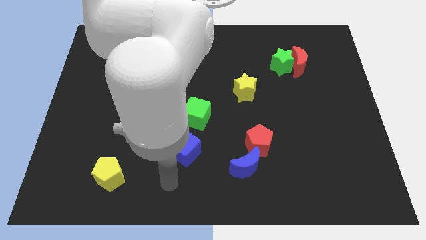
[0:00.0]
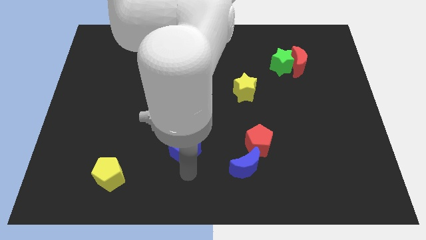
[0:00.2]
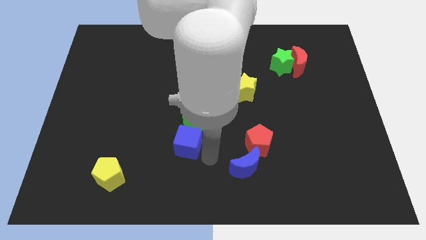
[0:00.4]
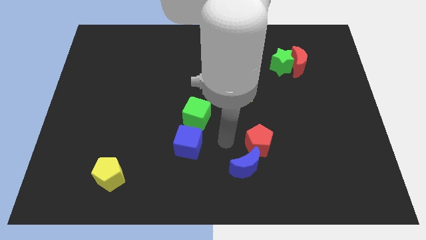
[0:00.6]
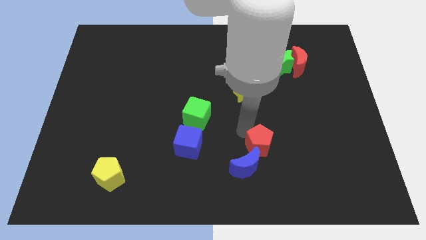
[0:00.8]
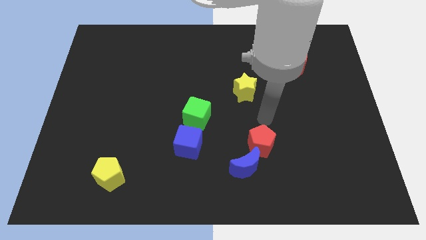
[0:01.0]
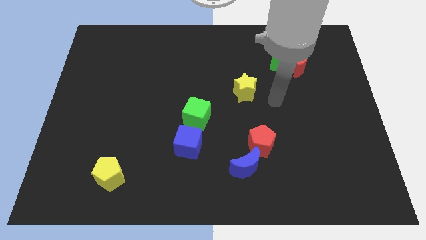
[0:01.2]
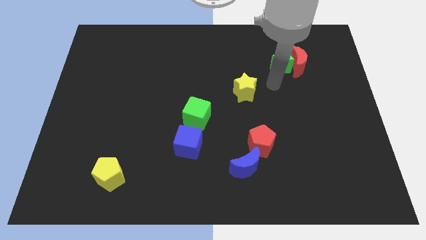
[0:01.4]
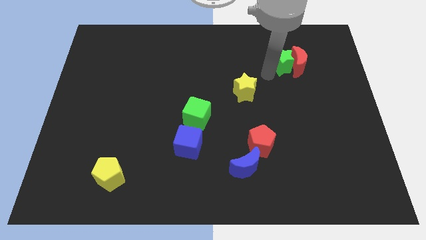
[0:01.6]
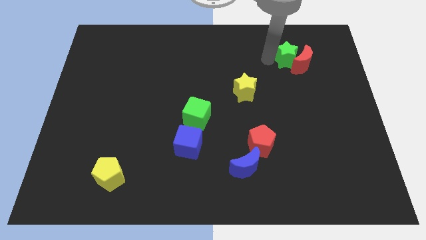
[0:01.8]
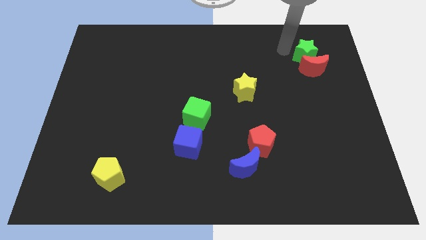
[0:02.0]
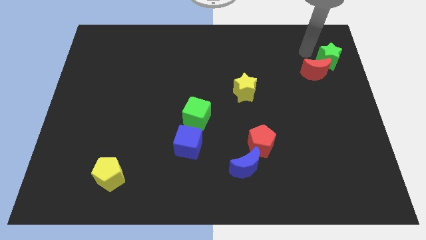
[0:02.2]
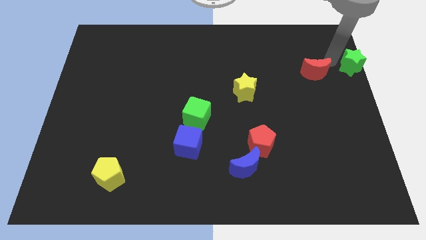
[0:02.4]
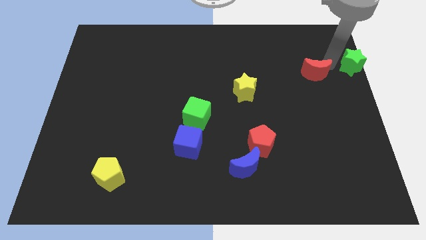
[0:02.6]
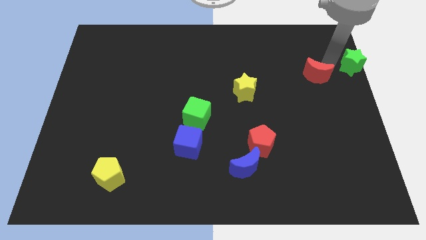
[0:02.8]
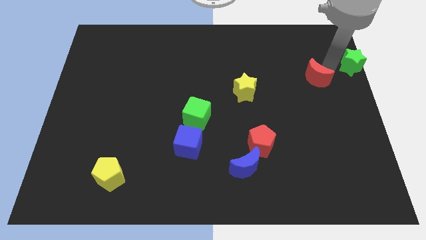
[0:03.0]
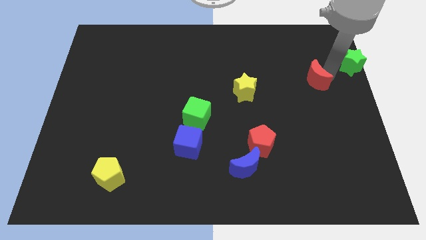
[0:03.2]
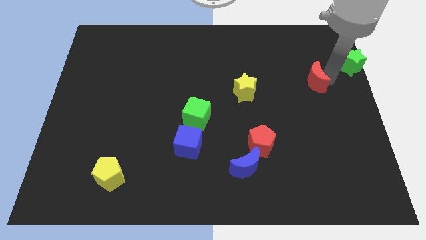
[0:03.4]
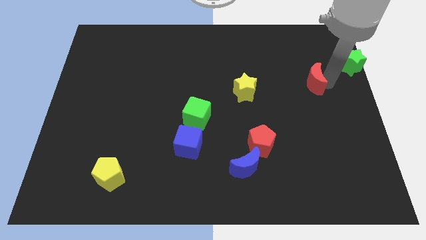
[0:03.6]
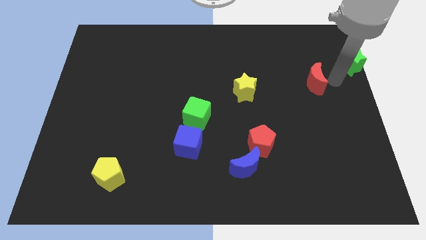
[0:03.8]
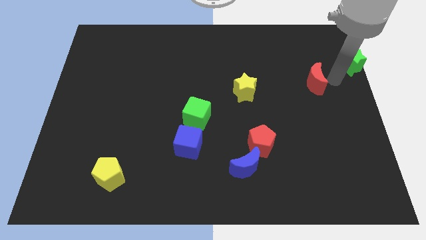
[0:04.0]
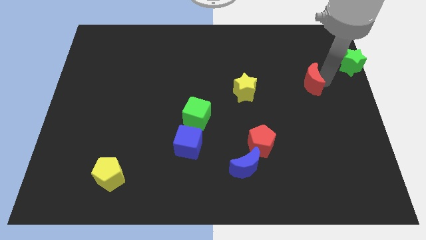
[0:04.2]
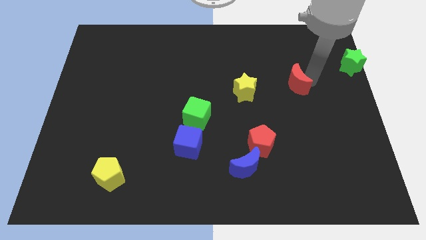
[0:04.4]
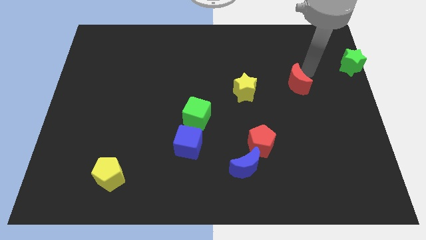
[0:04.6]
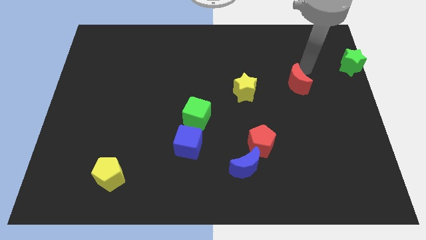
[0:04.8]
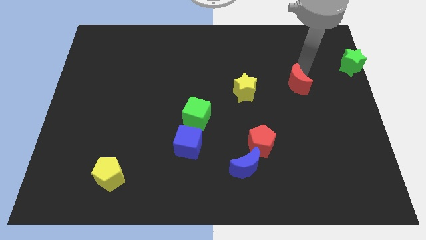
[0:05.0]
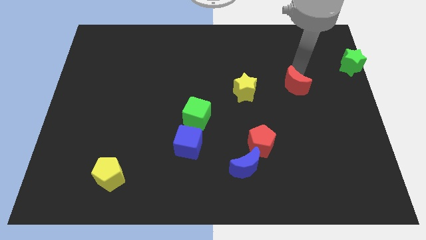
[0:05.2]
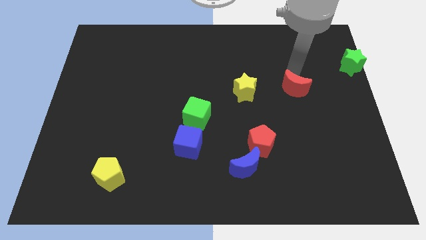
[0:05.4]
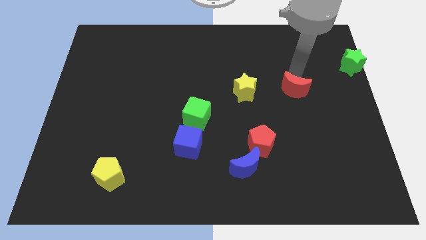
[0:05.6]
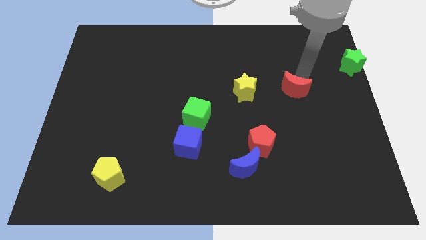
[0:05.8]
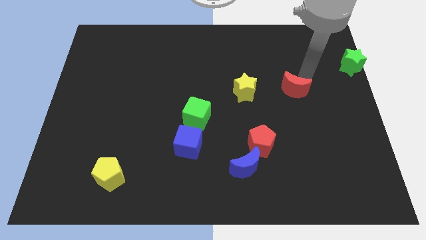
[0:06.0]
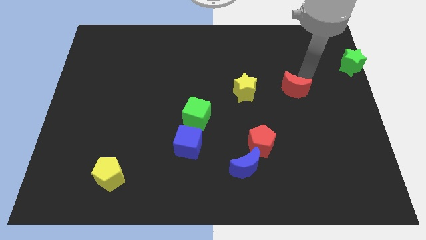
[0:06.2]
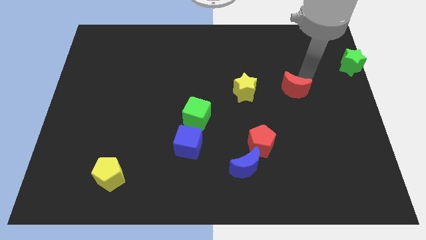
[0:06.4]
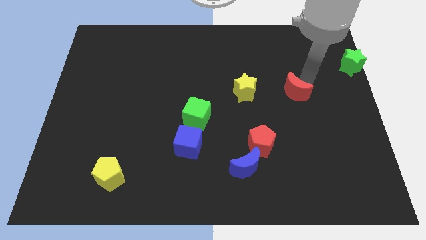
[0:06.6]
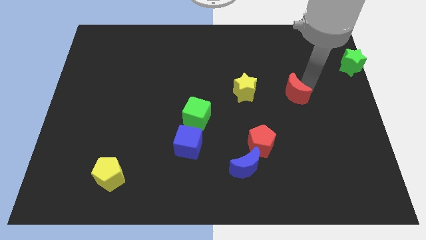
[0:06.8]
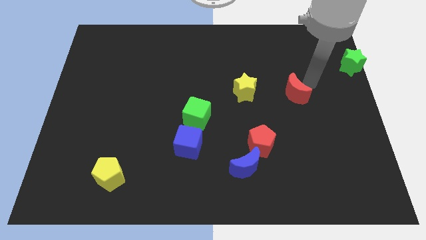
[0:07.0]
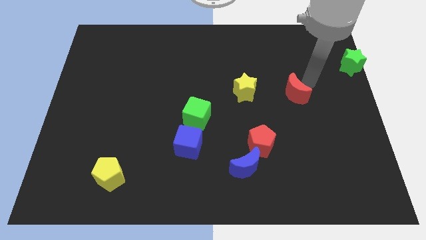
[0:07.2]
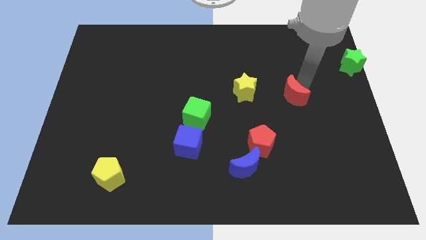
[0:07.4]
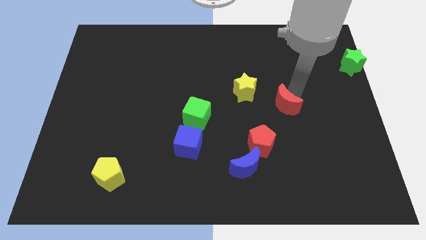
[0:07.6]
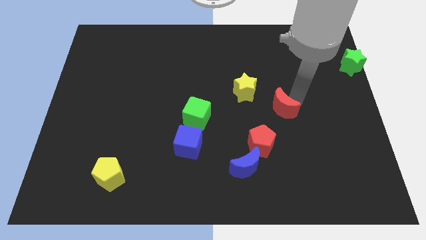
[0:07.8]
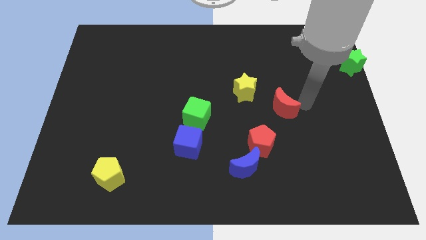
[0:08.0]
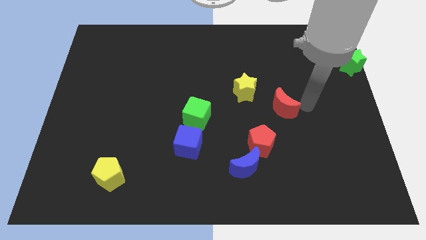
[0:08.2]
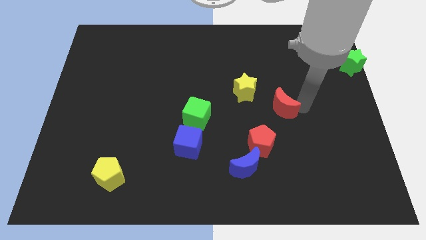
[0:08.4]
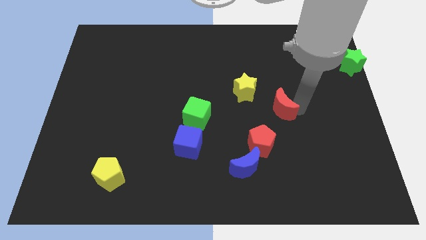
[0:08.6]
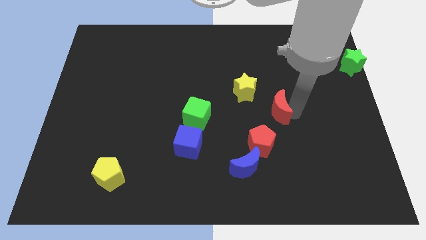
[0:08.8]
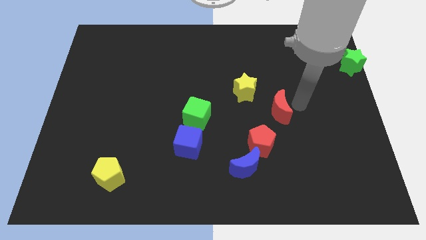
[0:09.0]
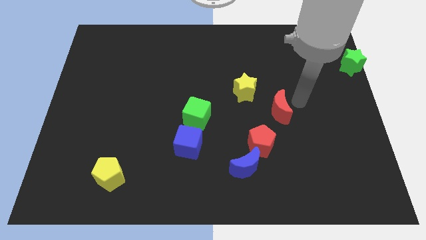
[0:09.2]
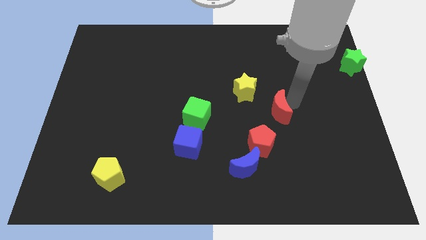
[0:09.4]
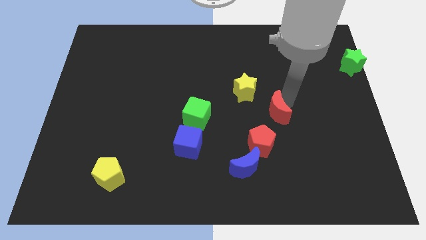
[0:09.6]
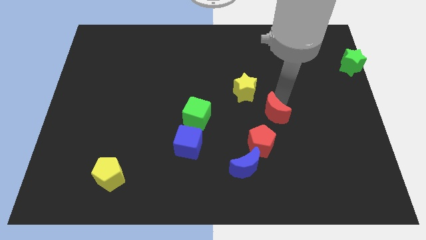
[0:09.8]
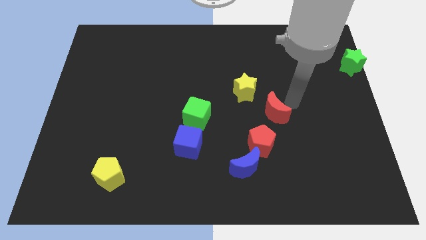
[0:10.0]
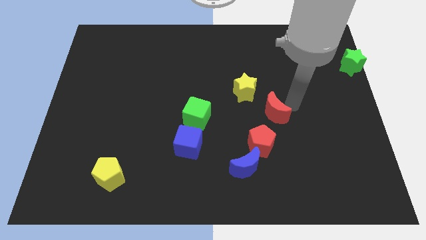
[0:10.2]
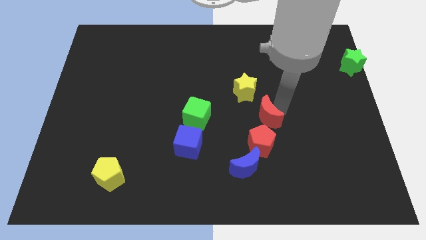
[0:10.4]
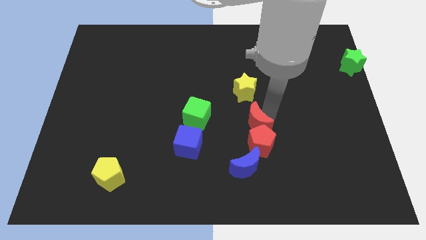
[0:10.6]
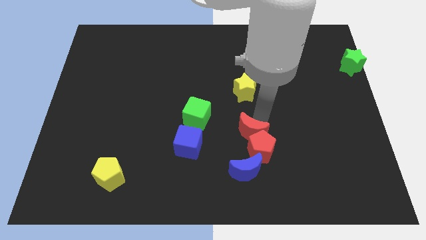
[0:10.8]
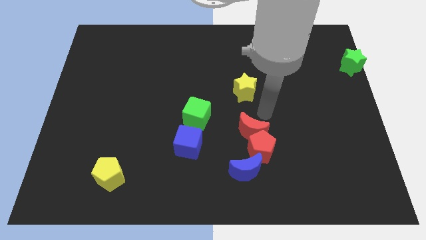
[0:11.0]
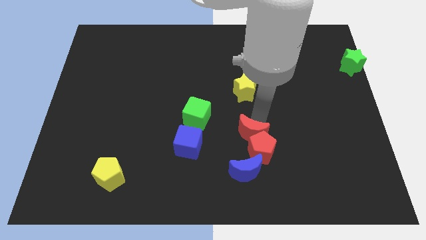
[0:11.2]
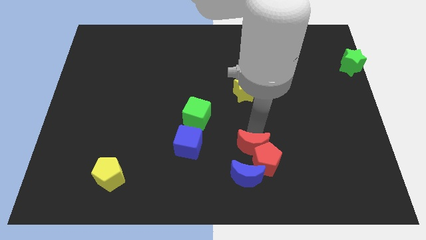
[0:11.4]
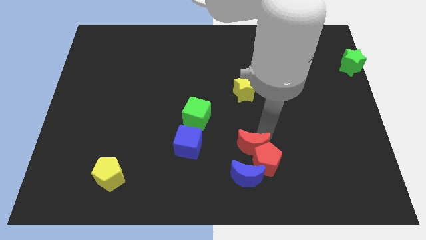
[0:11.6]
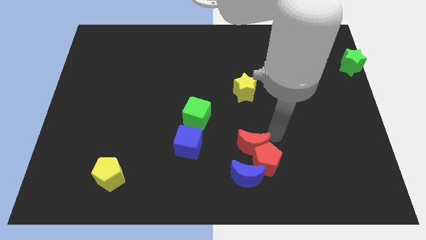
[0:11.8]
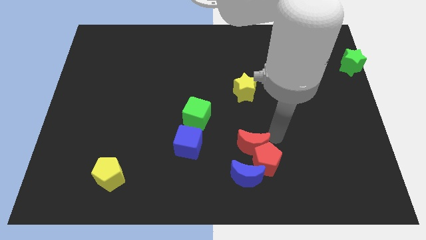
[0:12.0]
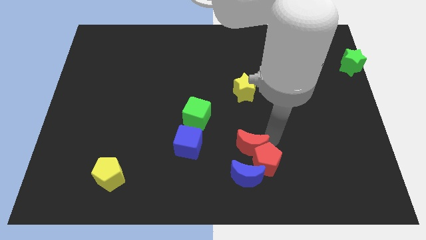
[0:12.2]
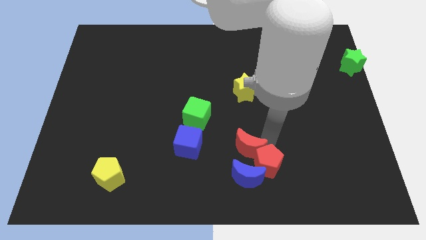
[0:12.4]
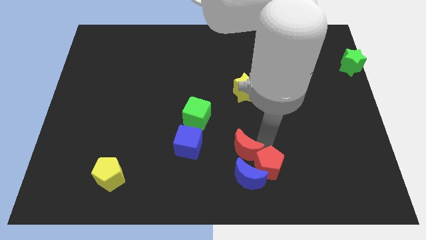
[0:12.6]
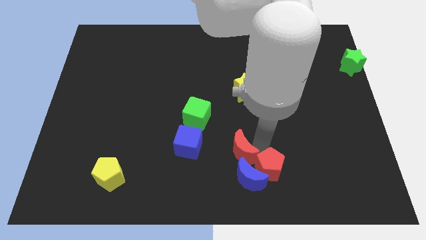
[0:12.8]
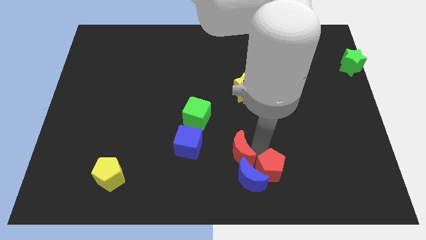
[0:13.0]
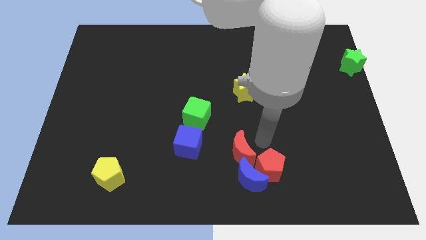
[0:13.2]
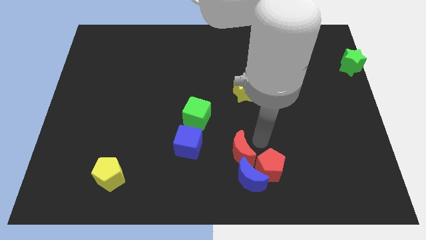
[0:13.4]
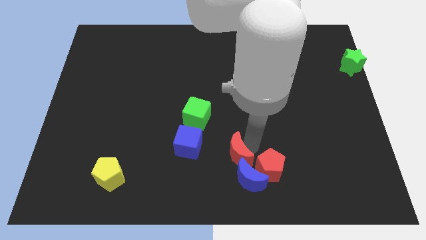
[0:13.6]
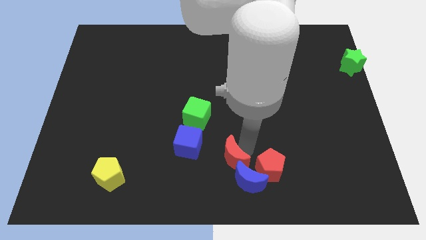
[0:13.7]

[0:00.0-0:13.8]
put the red moon to the bottom
